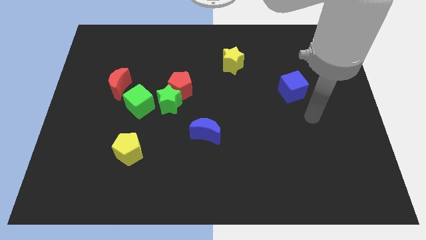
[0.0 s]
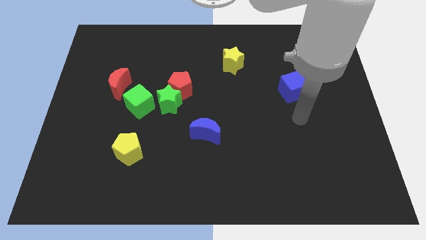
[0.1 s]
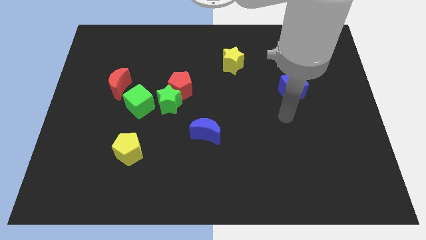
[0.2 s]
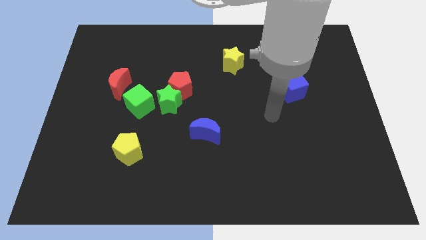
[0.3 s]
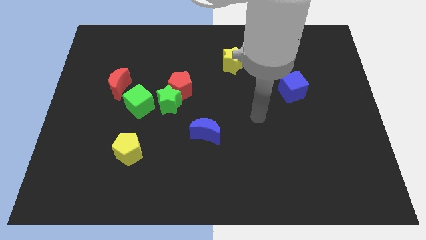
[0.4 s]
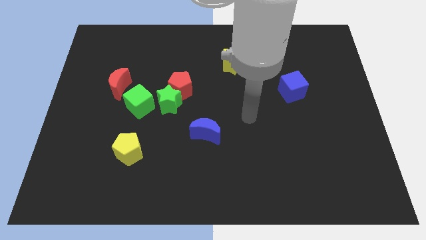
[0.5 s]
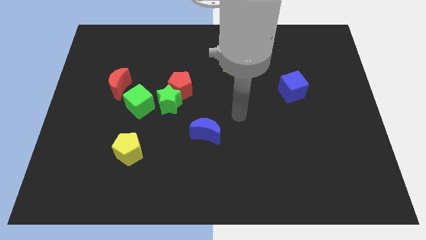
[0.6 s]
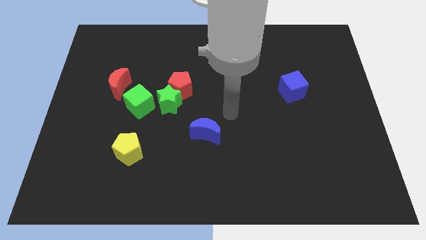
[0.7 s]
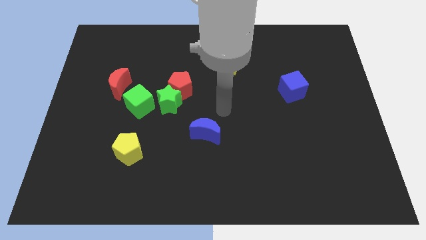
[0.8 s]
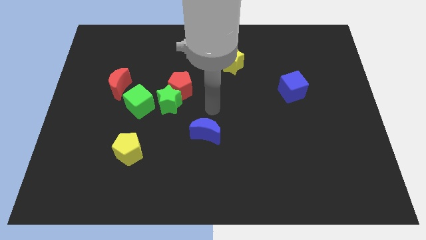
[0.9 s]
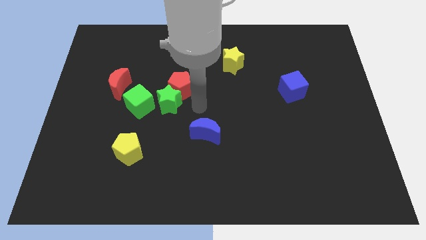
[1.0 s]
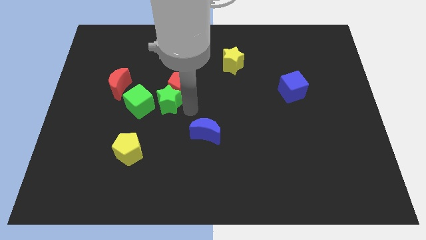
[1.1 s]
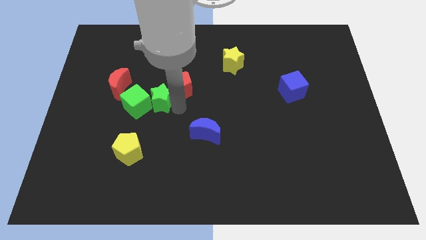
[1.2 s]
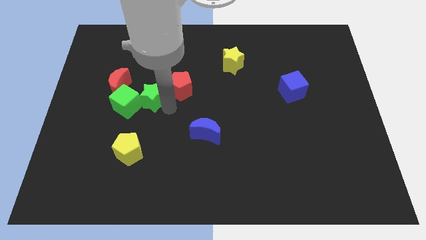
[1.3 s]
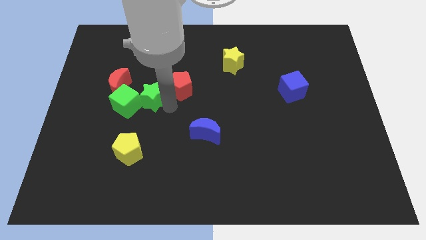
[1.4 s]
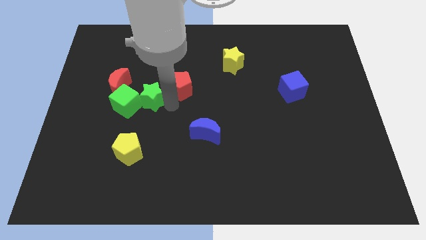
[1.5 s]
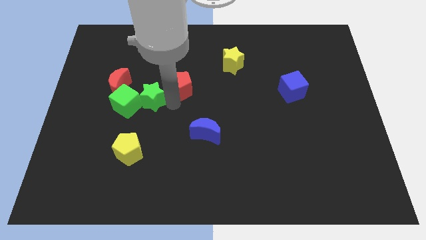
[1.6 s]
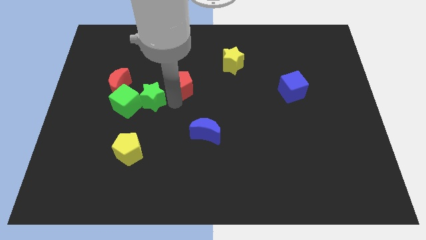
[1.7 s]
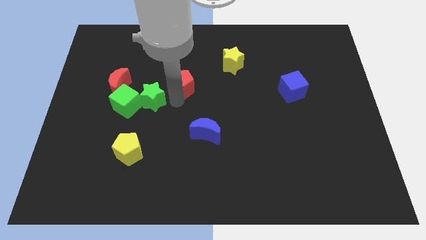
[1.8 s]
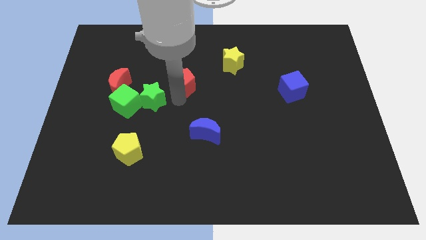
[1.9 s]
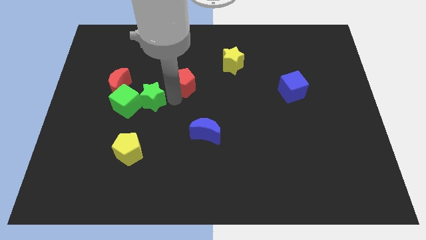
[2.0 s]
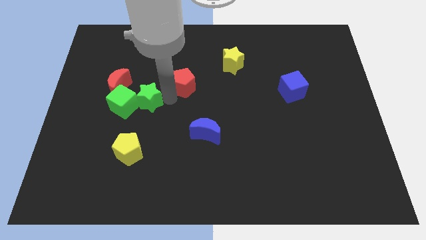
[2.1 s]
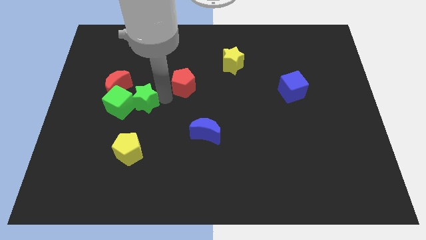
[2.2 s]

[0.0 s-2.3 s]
pull the red pentagon apart from the green star

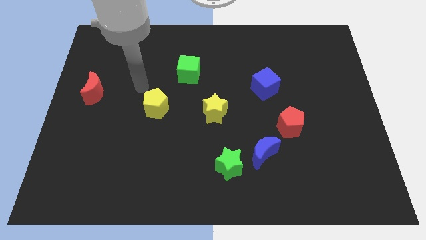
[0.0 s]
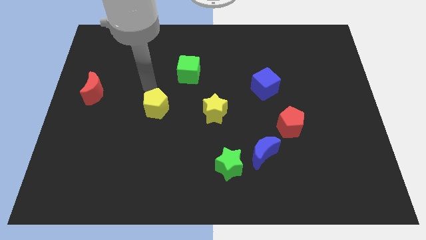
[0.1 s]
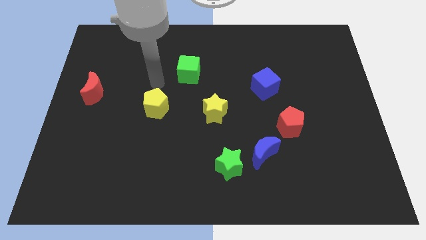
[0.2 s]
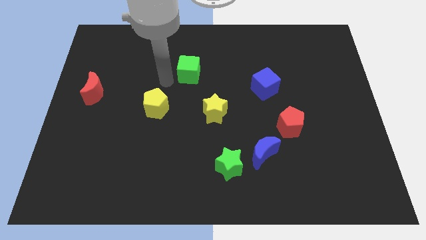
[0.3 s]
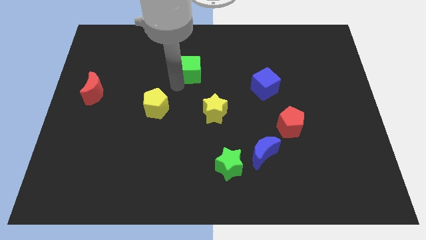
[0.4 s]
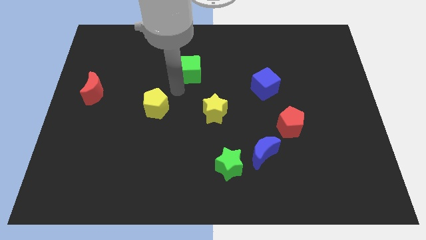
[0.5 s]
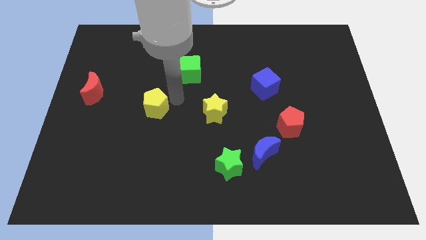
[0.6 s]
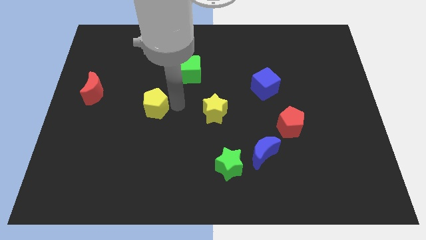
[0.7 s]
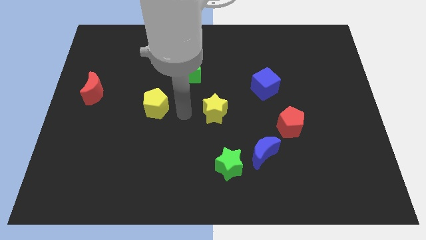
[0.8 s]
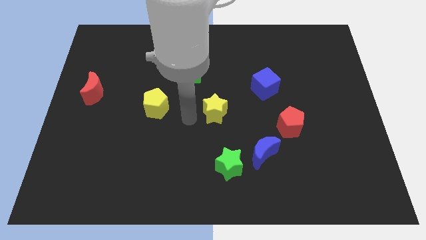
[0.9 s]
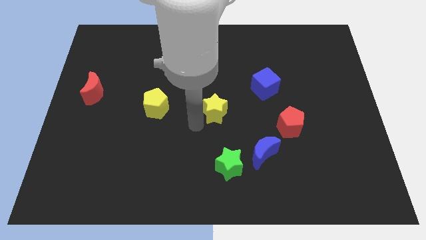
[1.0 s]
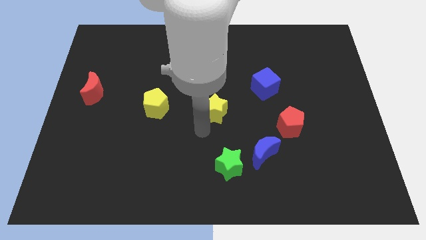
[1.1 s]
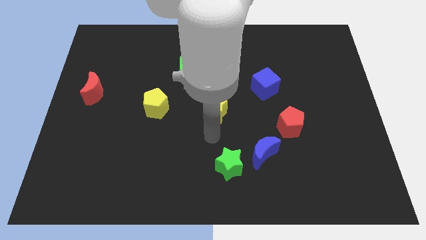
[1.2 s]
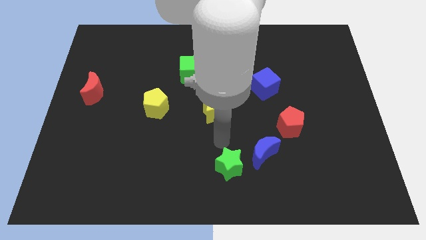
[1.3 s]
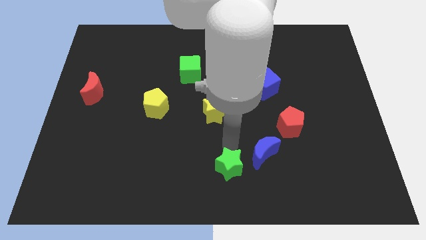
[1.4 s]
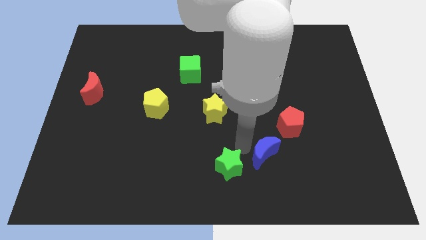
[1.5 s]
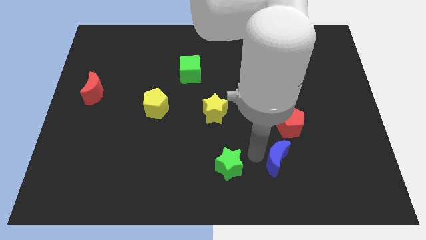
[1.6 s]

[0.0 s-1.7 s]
move the green star away from the blue moon

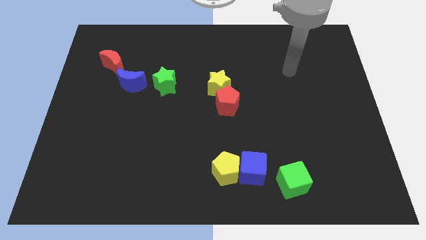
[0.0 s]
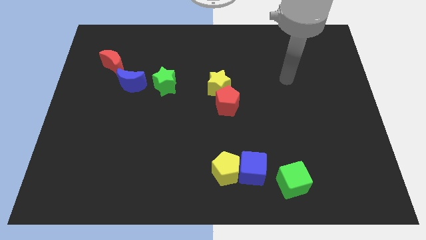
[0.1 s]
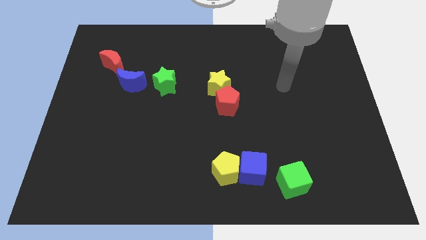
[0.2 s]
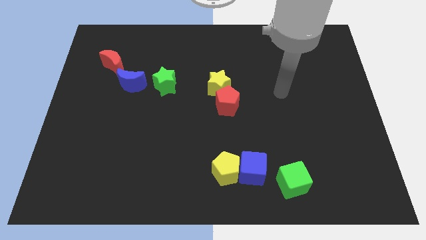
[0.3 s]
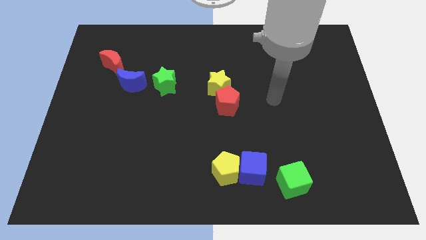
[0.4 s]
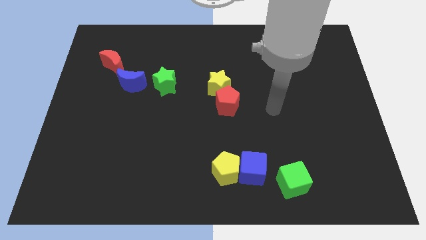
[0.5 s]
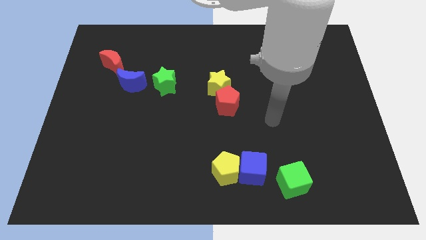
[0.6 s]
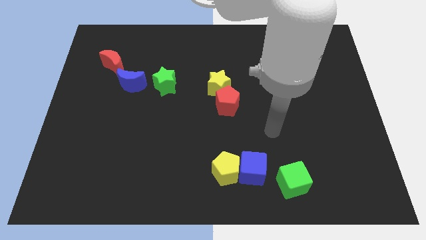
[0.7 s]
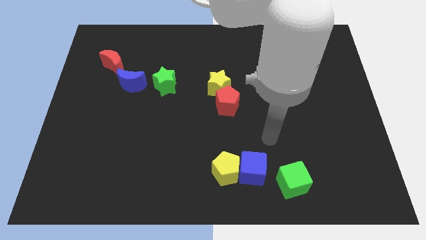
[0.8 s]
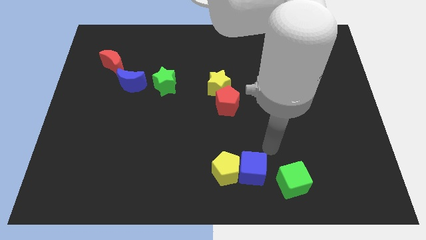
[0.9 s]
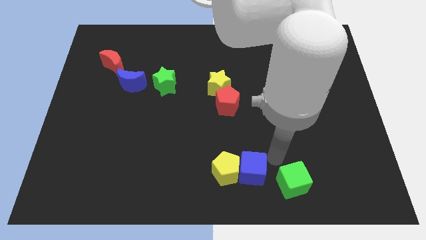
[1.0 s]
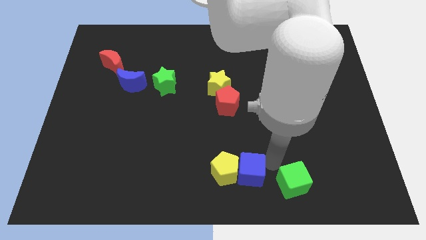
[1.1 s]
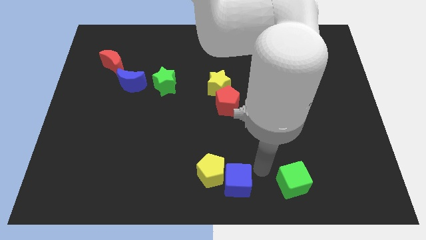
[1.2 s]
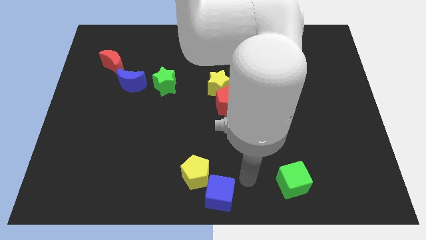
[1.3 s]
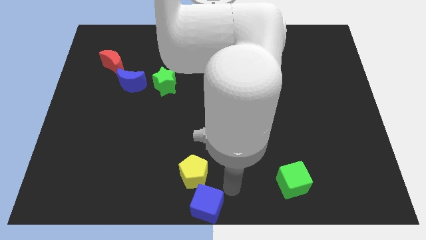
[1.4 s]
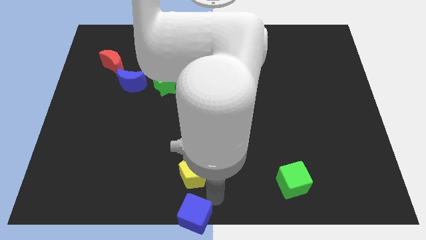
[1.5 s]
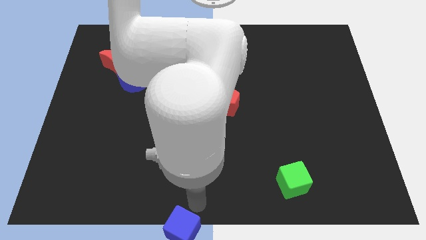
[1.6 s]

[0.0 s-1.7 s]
separate the yellow pentagon from the blue cube

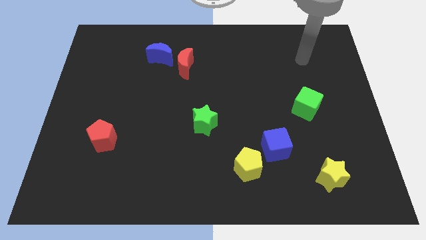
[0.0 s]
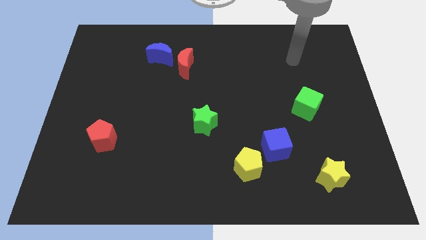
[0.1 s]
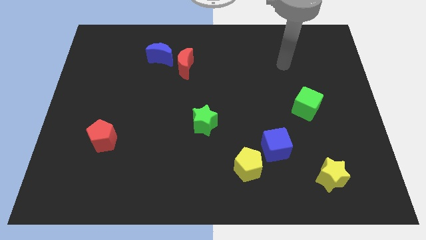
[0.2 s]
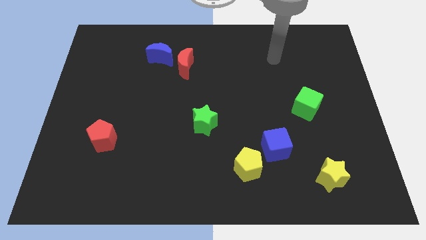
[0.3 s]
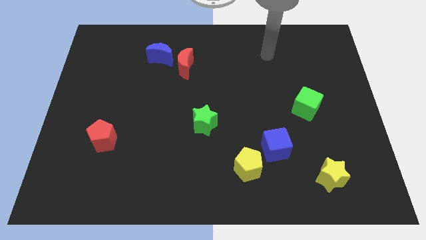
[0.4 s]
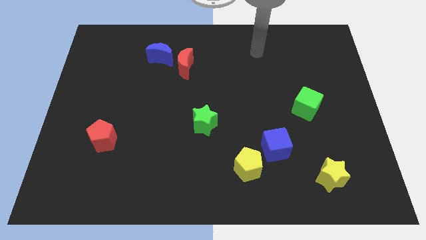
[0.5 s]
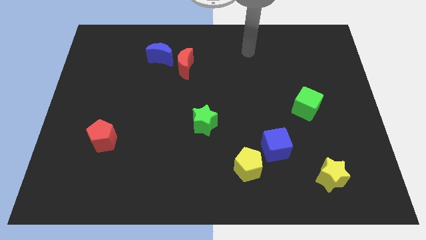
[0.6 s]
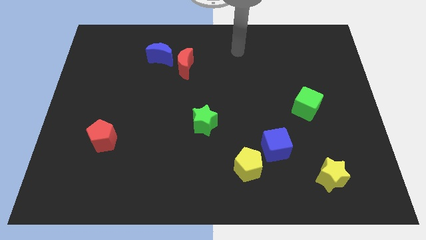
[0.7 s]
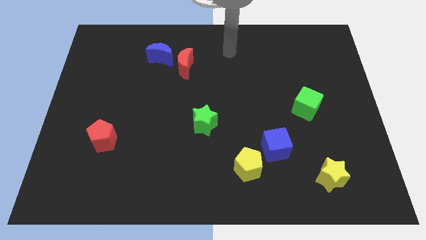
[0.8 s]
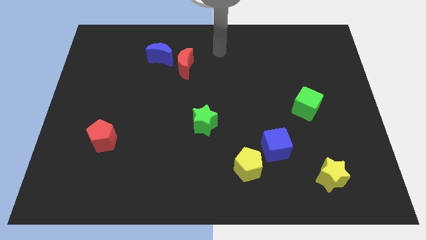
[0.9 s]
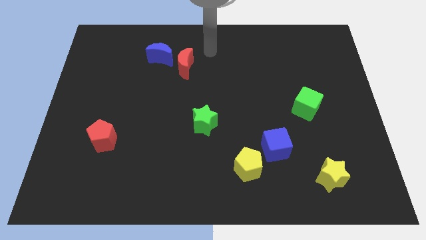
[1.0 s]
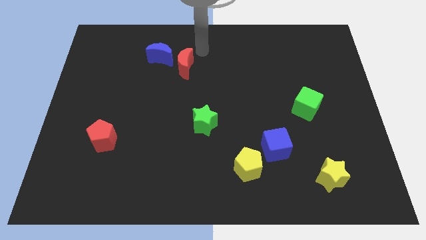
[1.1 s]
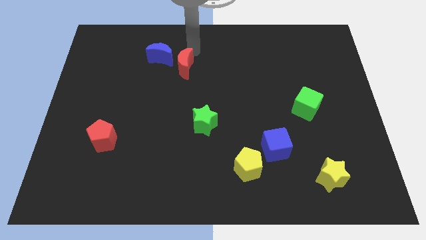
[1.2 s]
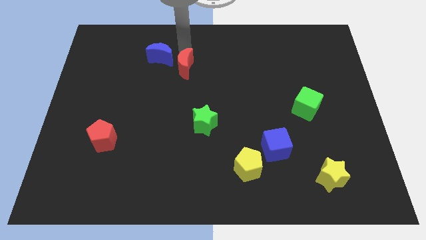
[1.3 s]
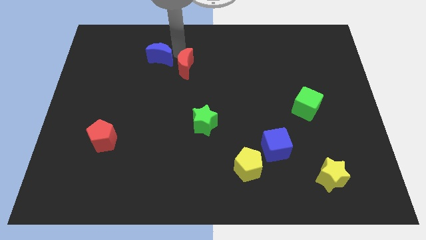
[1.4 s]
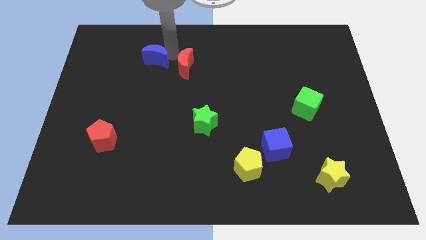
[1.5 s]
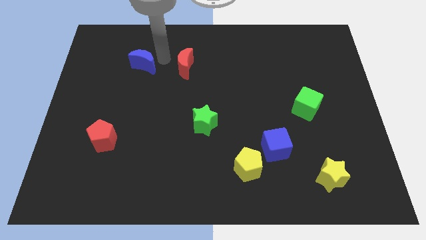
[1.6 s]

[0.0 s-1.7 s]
pull the red moon apart from the blue moon

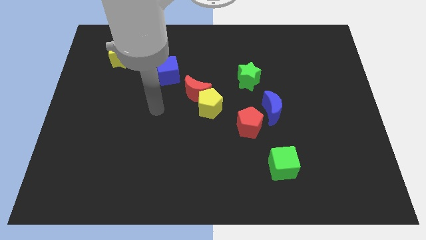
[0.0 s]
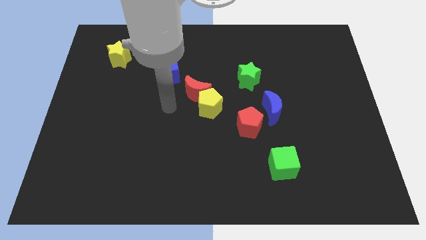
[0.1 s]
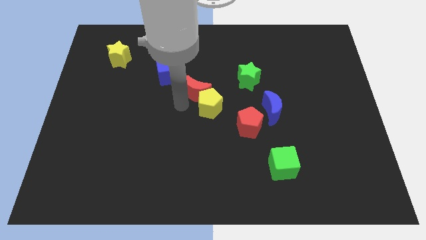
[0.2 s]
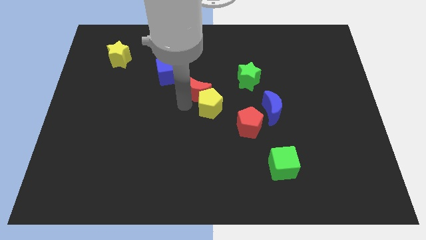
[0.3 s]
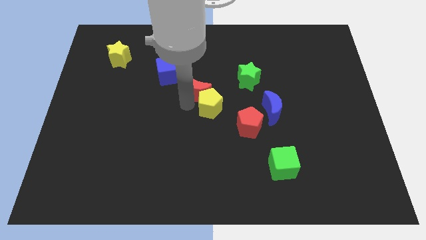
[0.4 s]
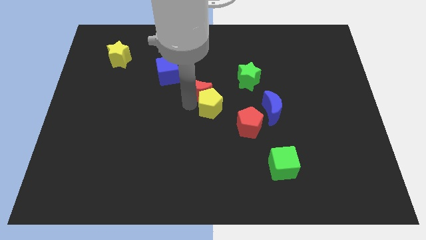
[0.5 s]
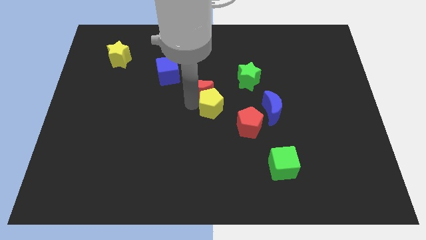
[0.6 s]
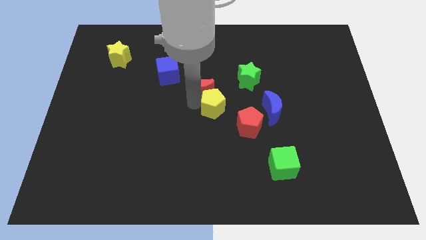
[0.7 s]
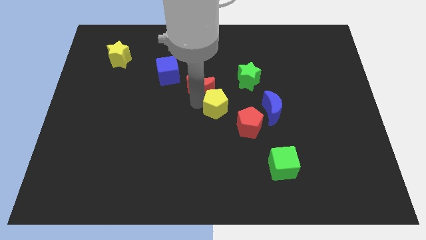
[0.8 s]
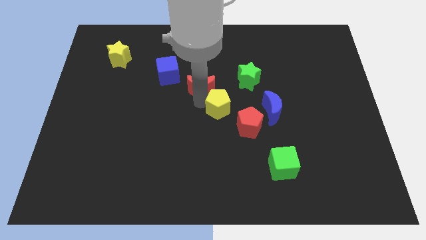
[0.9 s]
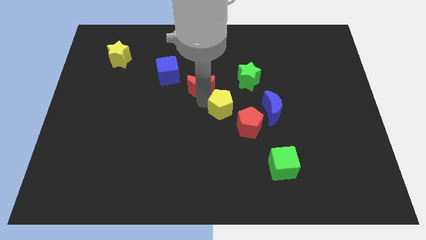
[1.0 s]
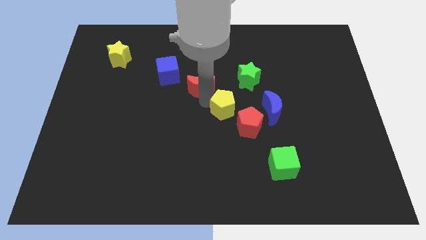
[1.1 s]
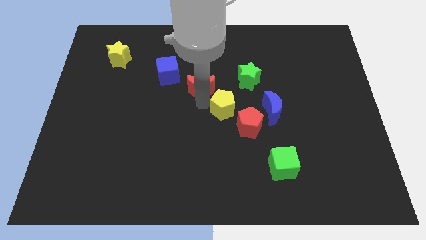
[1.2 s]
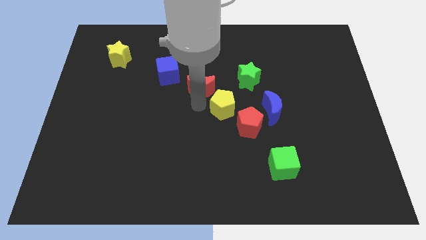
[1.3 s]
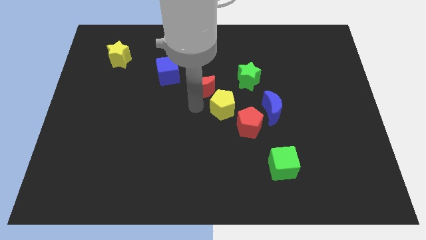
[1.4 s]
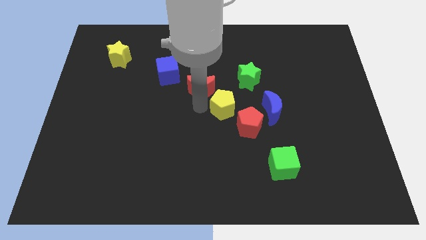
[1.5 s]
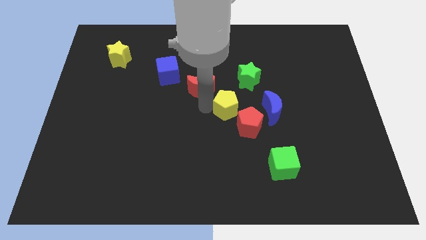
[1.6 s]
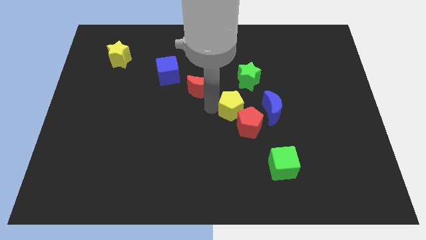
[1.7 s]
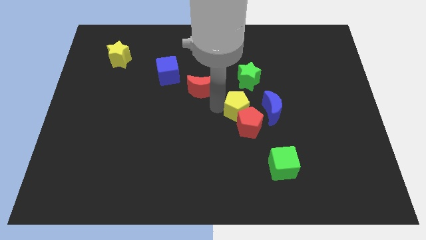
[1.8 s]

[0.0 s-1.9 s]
separate the yellow pentagon from the red moon

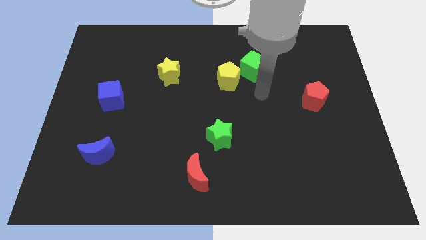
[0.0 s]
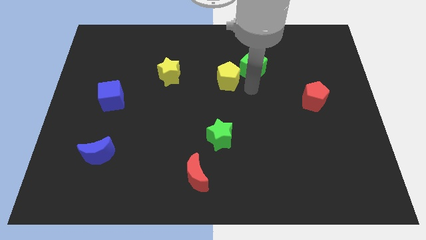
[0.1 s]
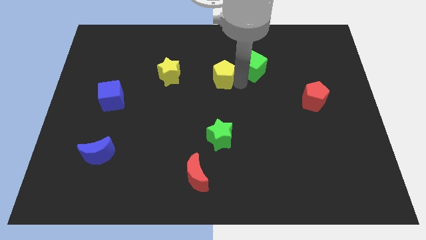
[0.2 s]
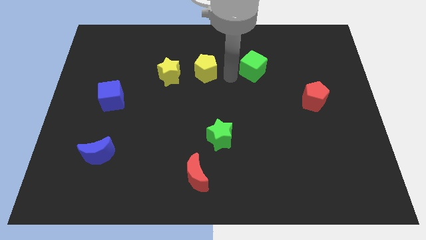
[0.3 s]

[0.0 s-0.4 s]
separate the green cube from the yellow pentagon
